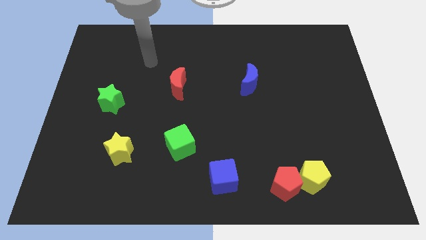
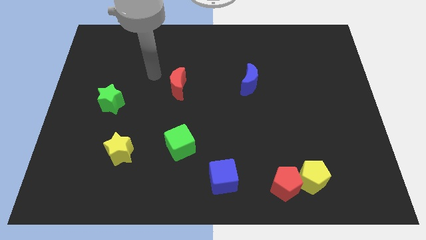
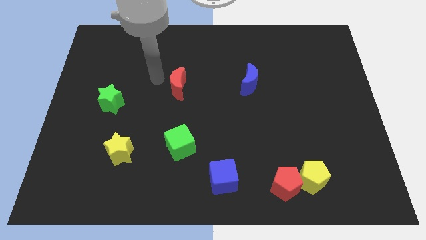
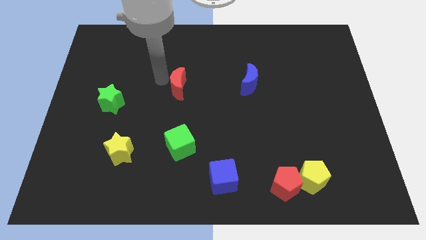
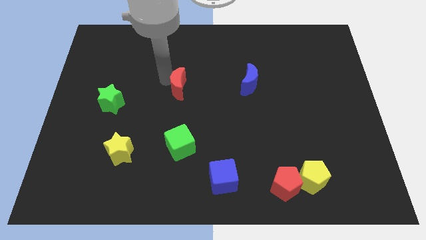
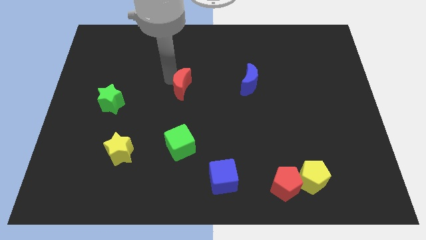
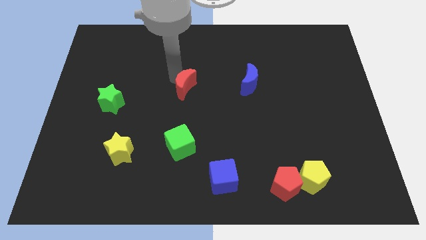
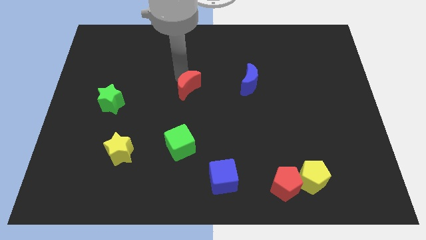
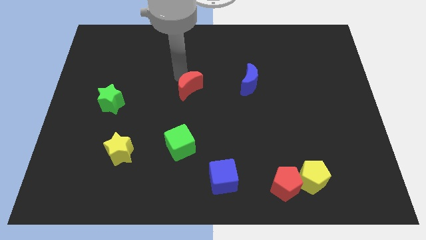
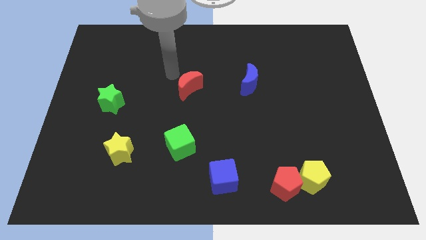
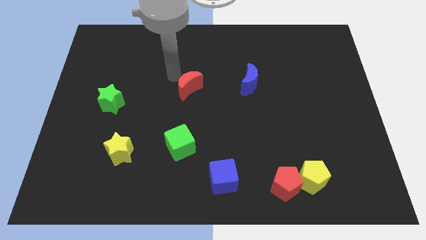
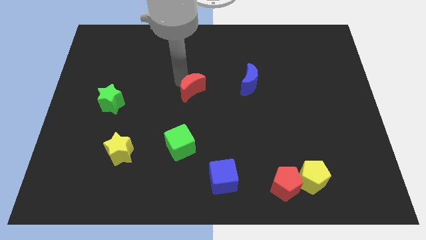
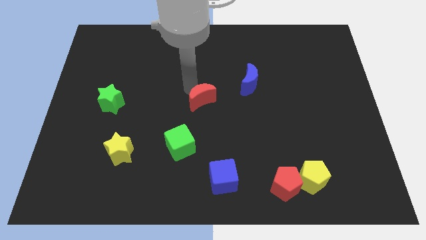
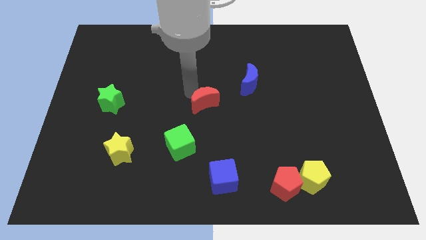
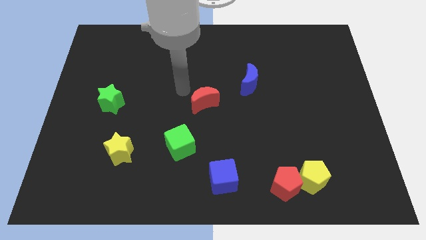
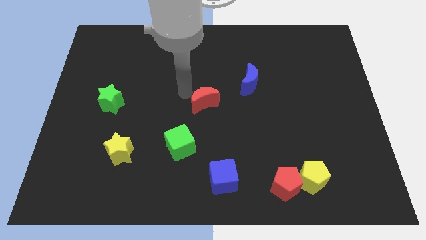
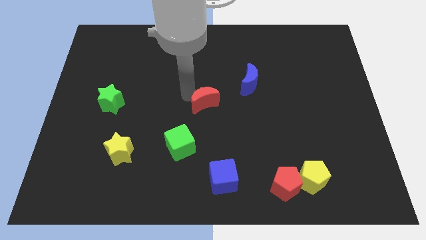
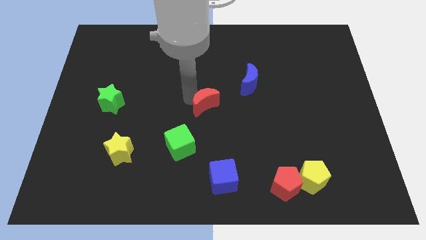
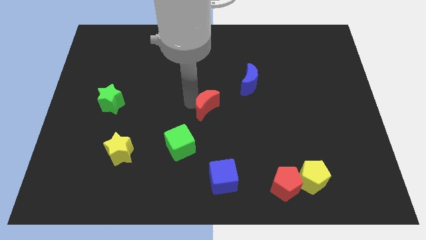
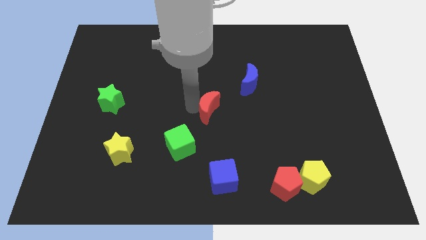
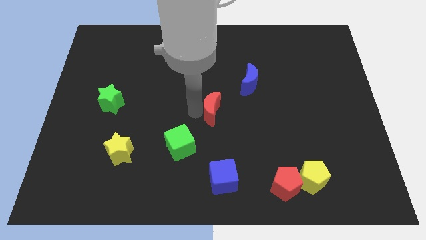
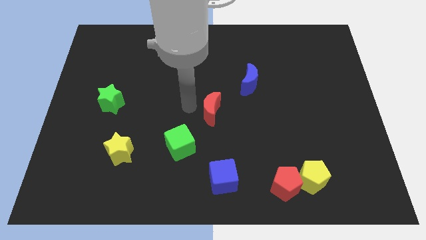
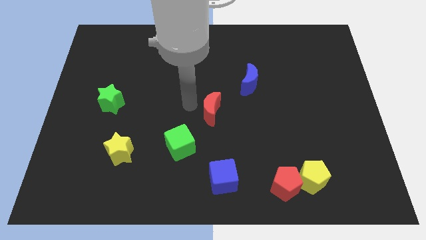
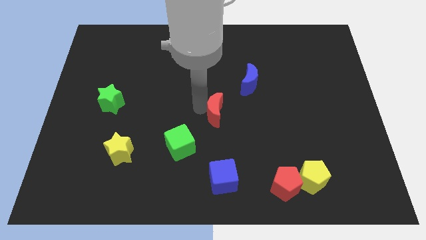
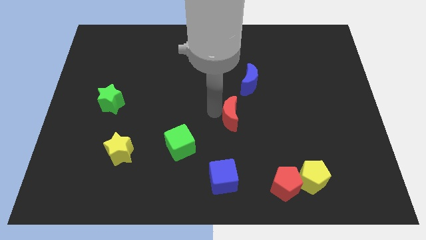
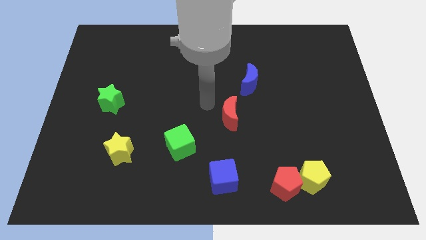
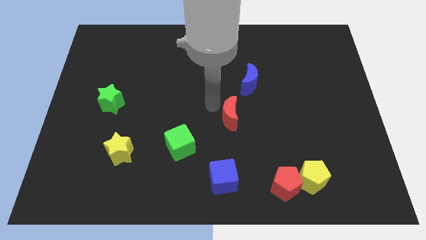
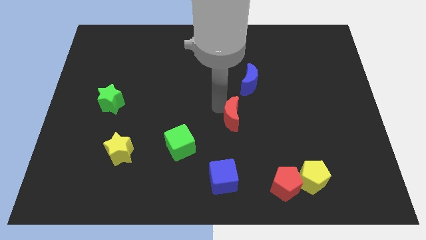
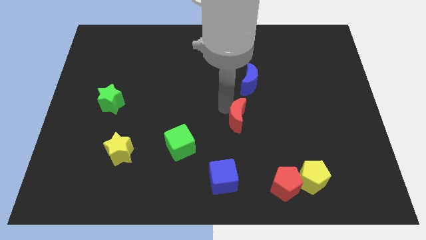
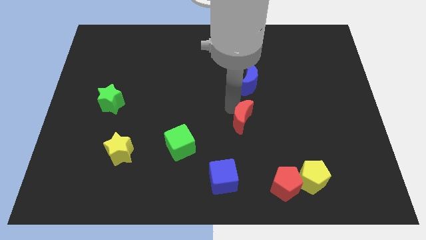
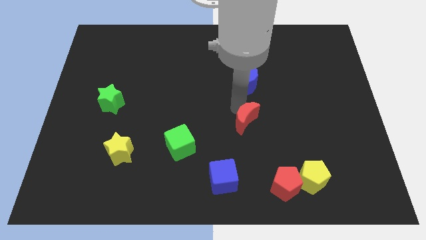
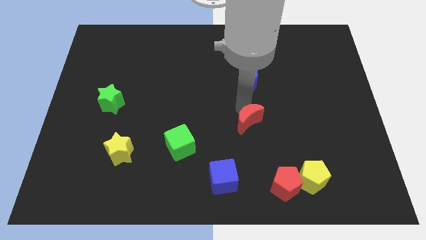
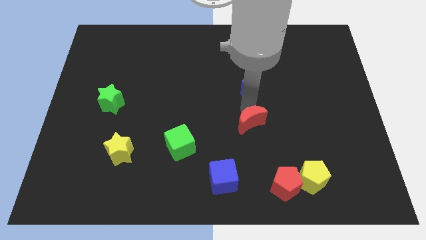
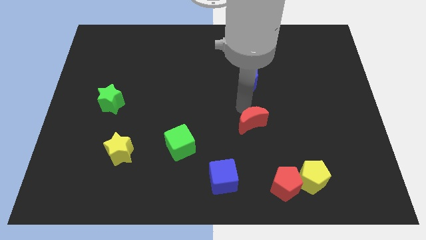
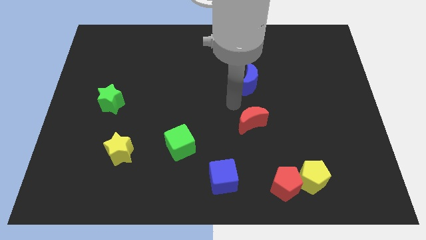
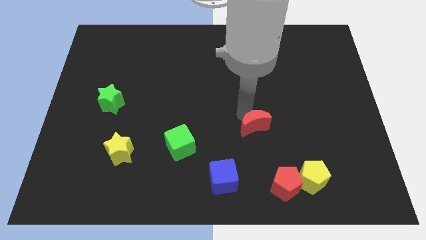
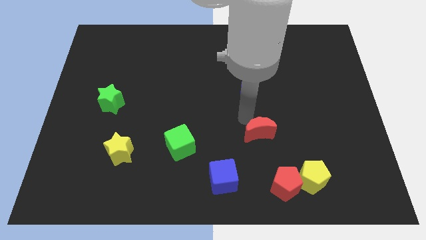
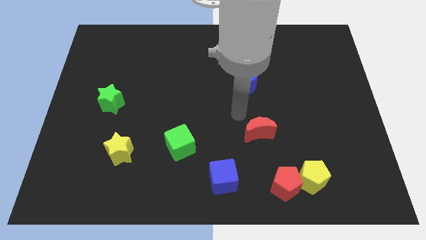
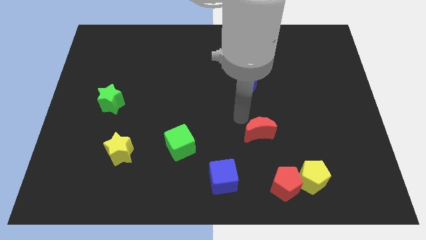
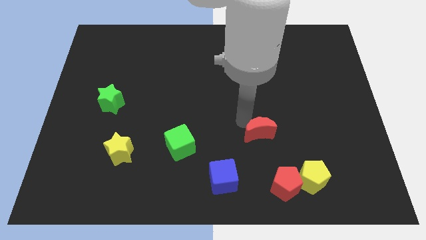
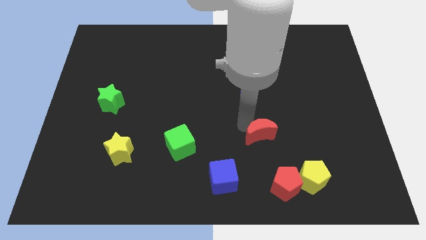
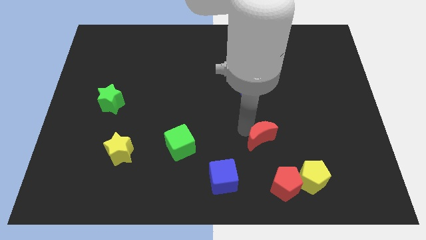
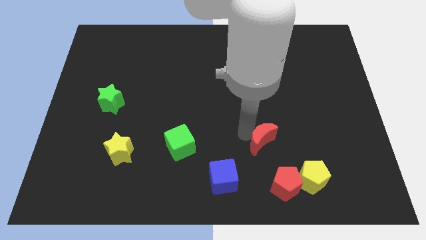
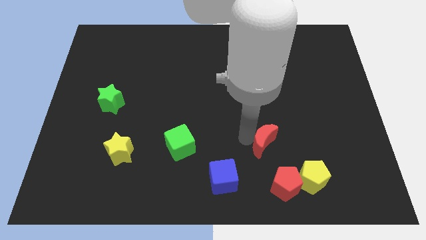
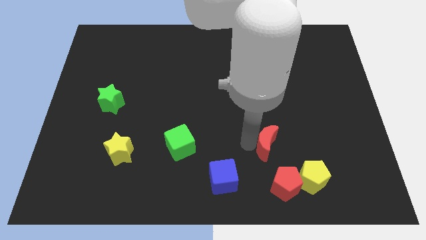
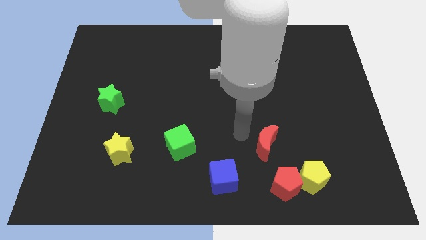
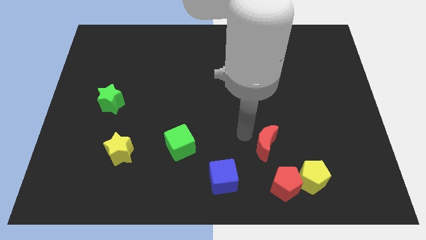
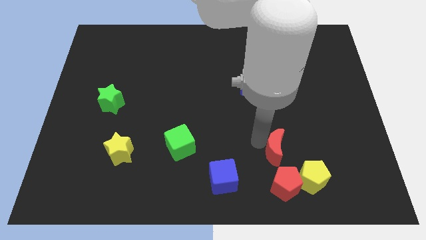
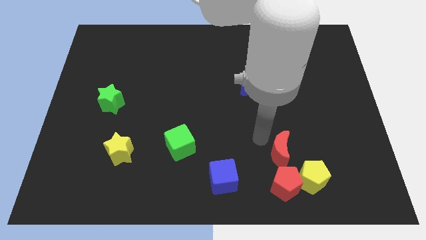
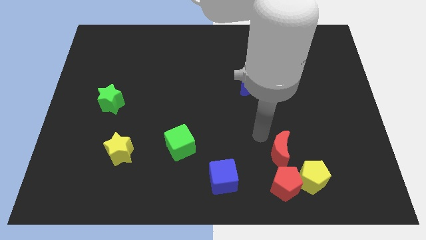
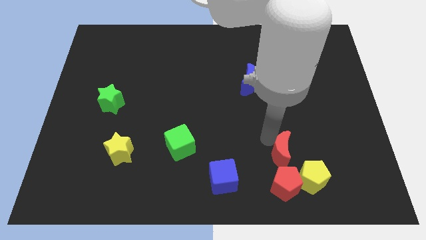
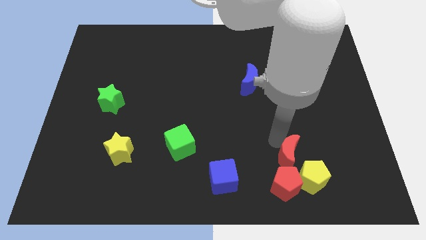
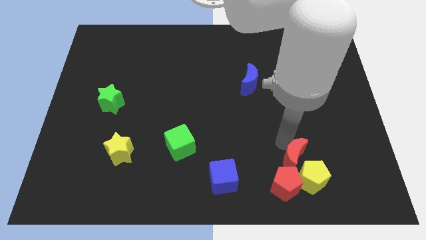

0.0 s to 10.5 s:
move the red moon next to the yellow pentagon

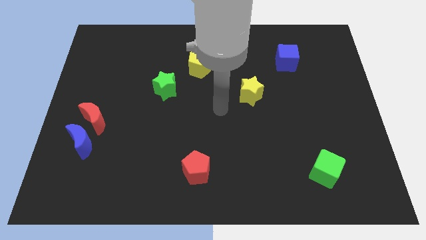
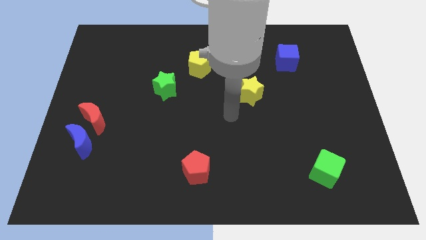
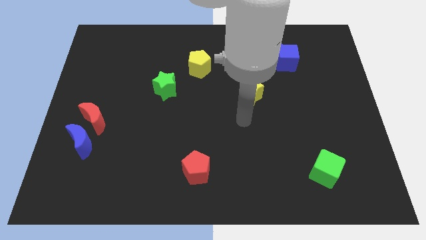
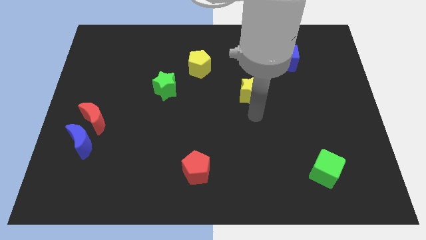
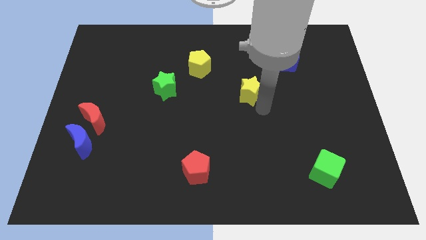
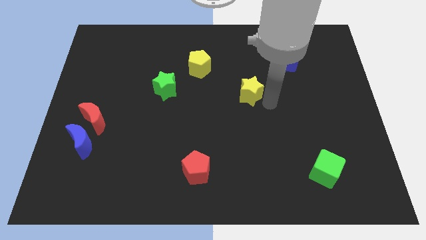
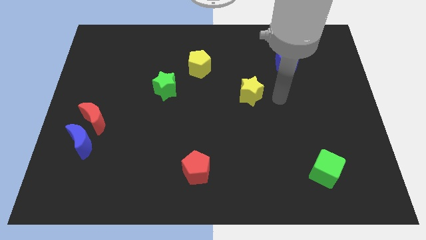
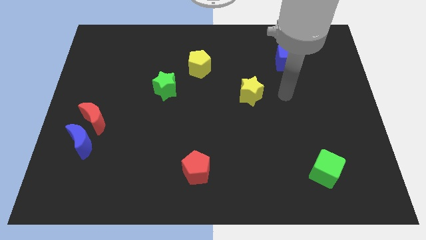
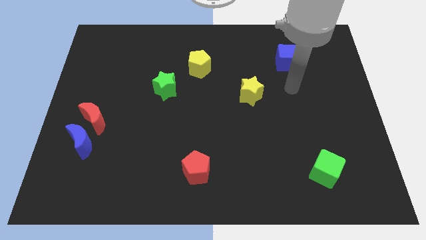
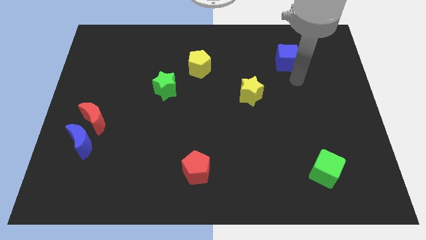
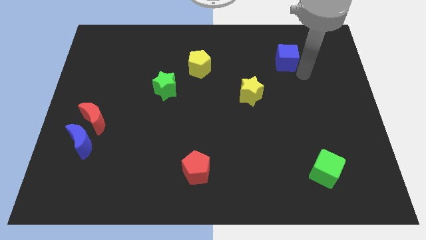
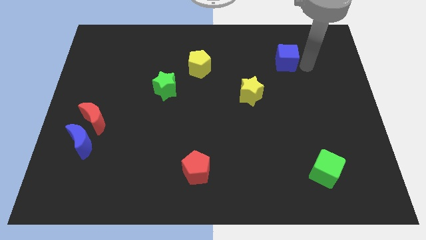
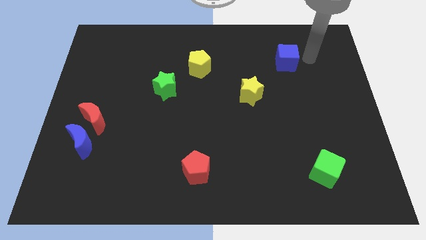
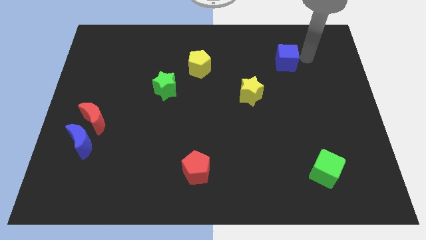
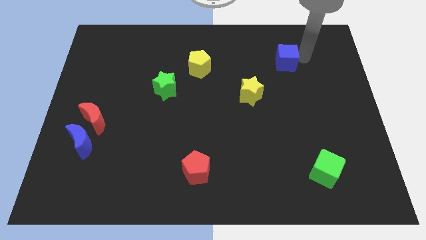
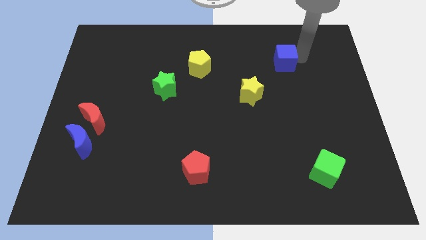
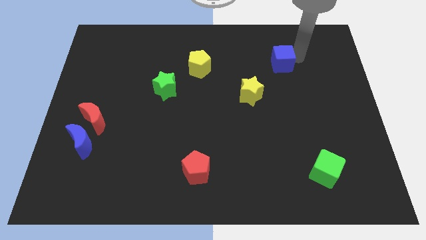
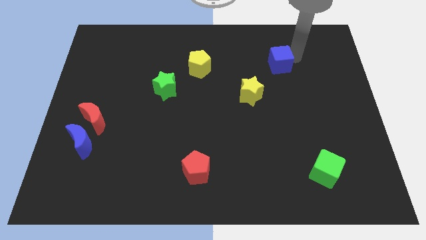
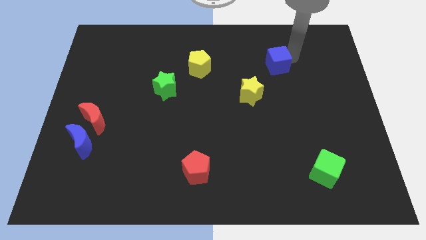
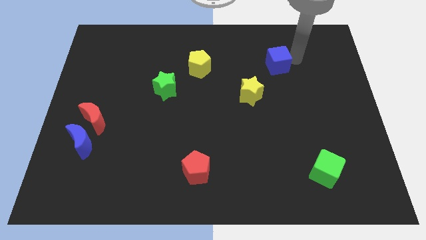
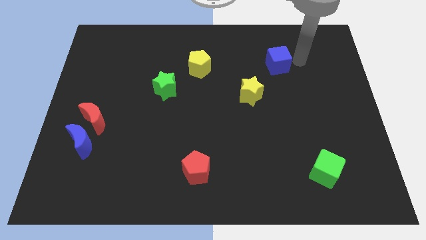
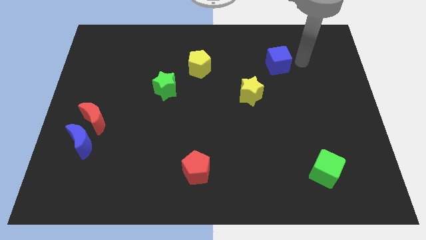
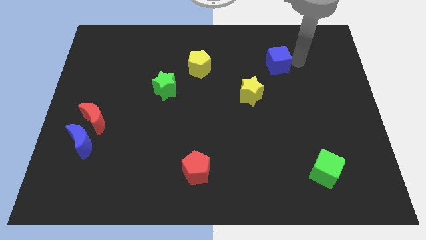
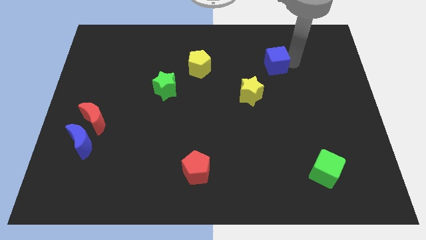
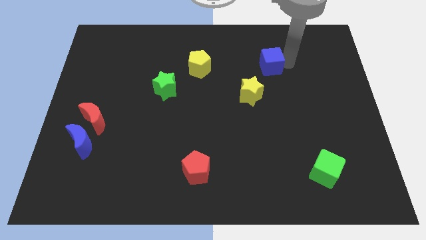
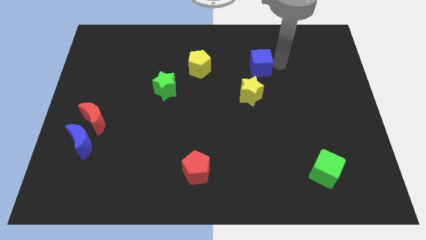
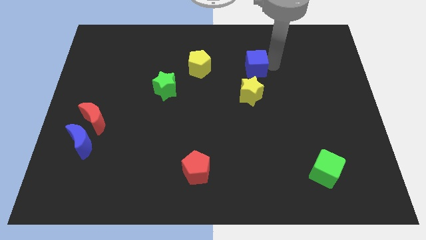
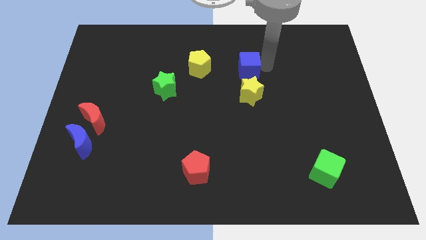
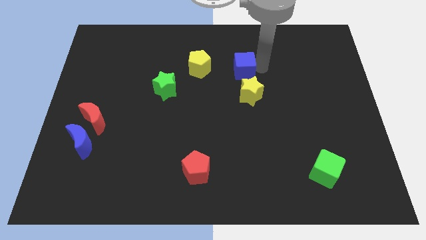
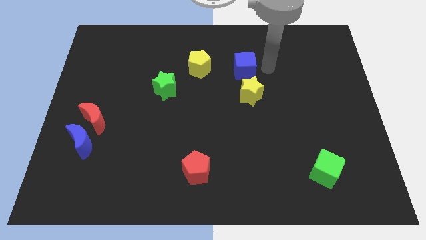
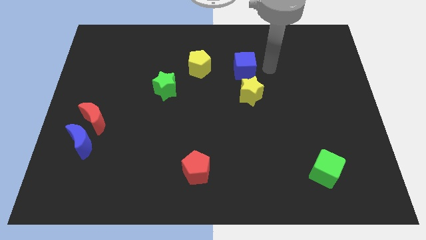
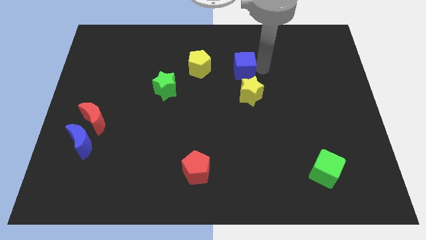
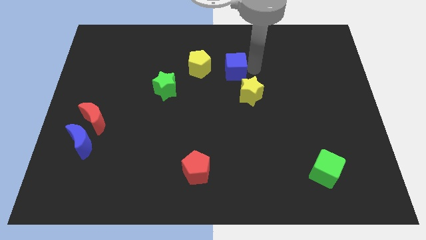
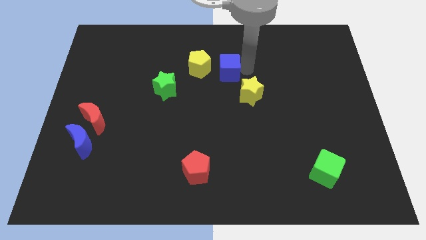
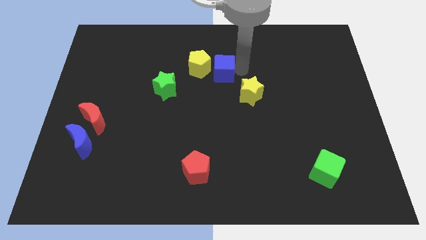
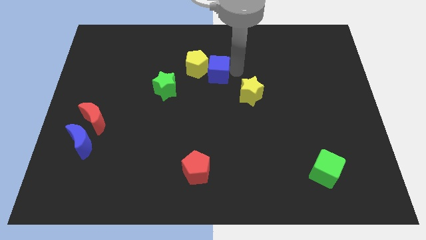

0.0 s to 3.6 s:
move the blue cube next to the yellow pentagon
